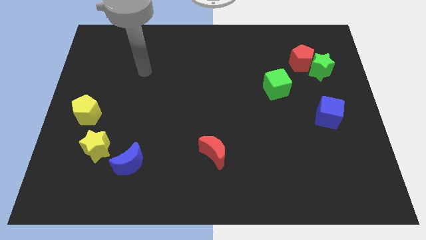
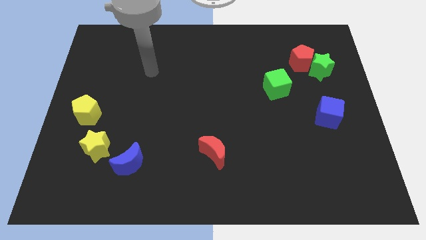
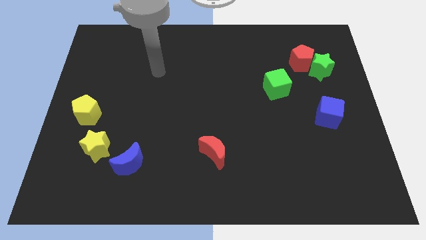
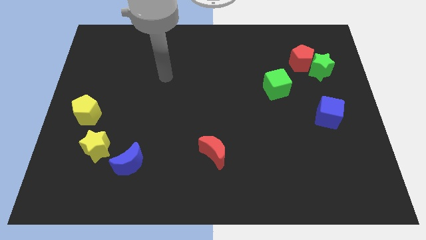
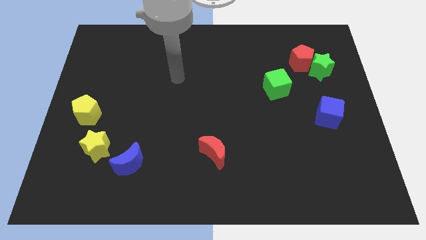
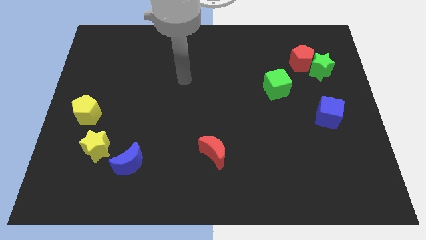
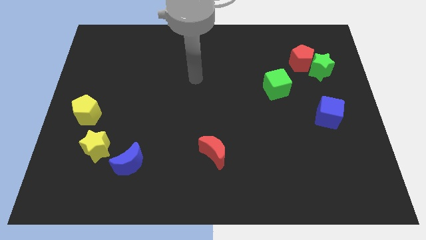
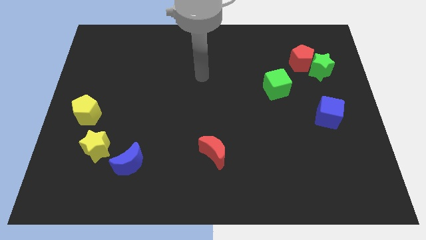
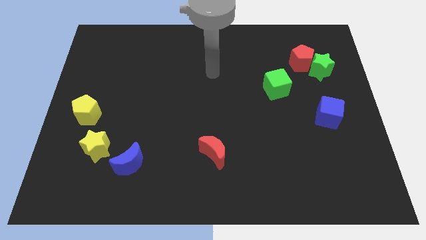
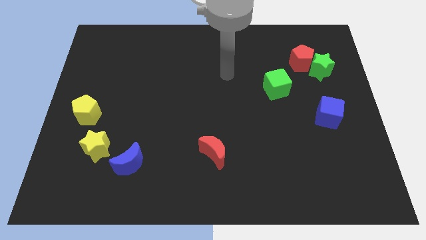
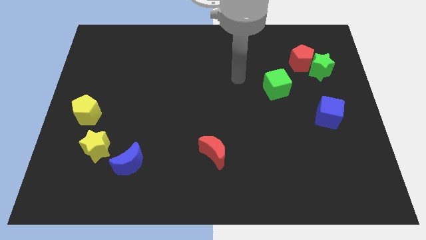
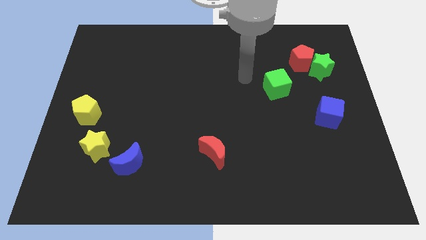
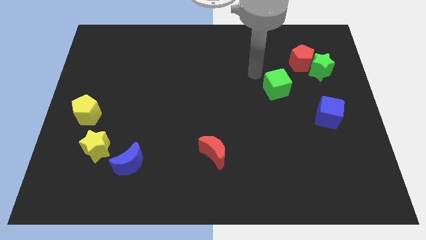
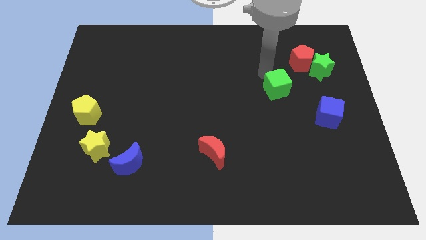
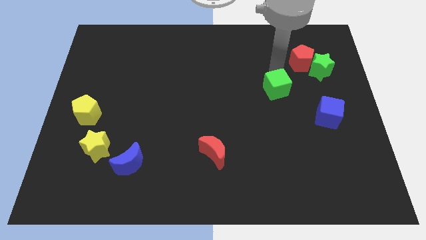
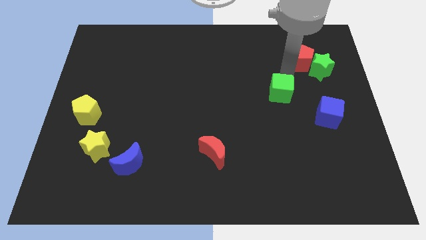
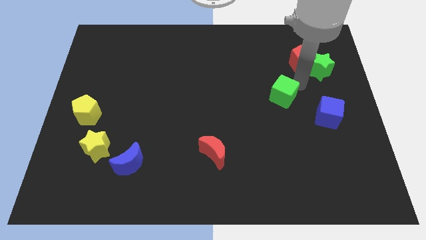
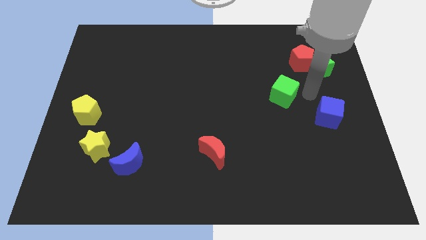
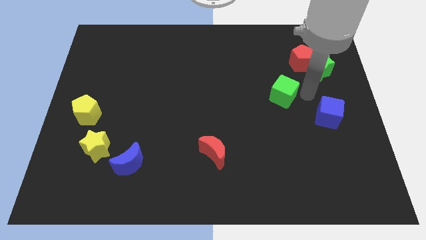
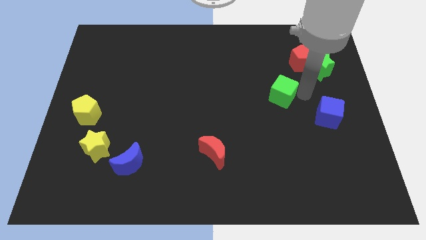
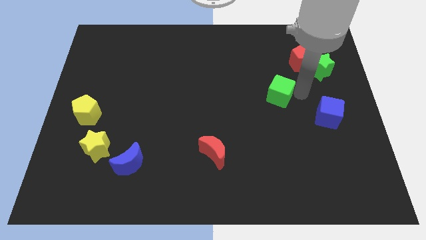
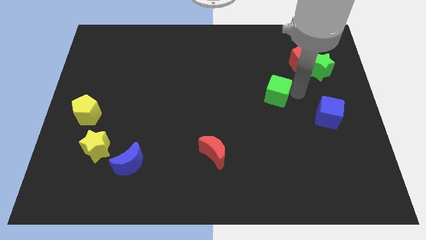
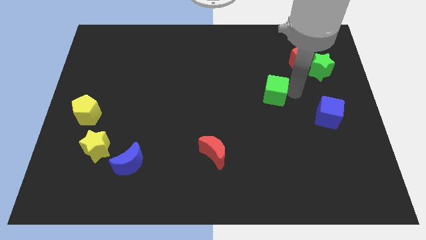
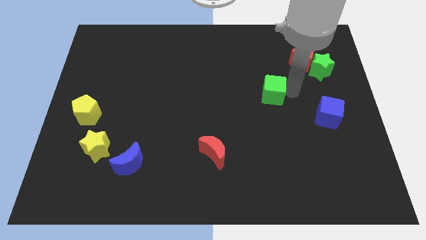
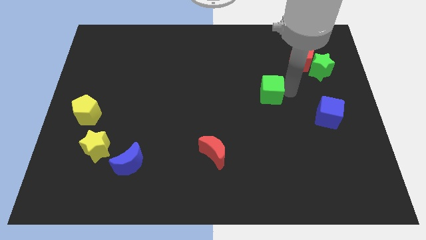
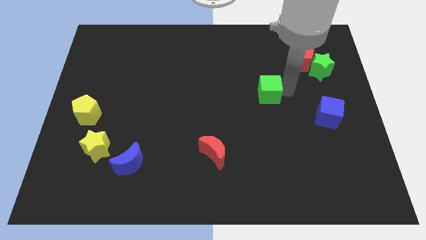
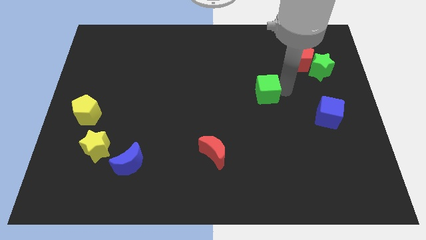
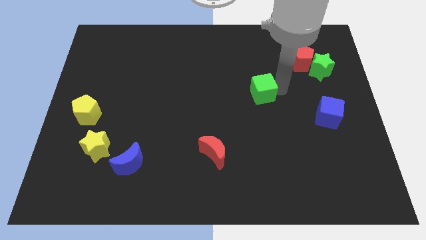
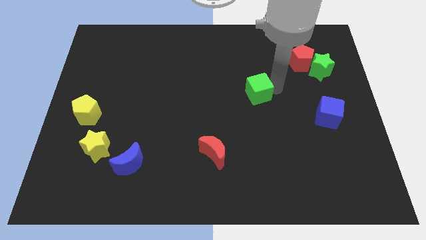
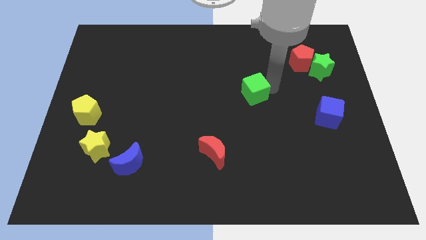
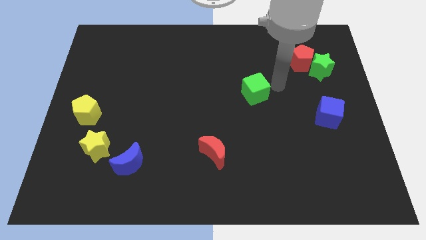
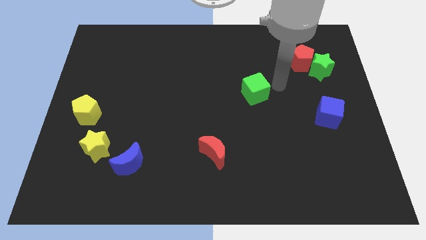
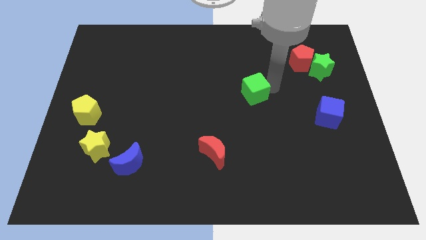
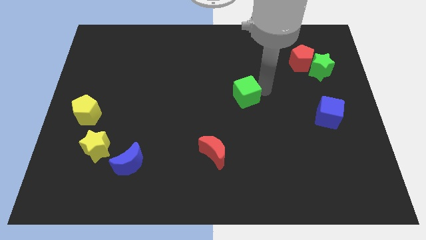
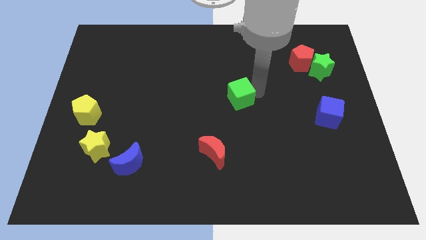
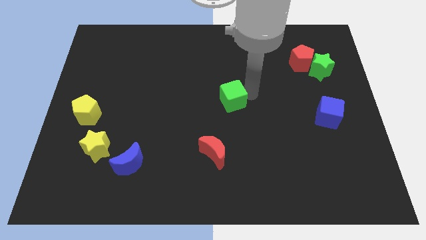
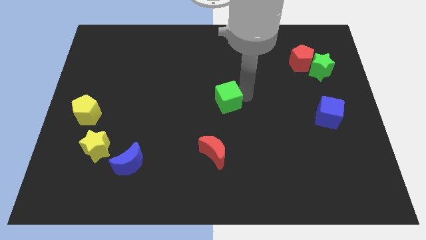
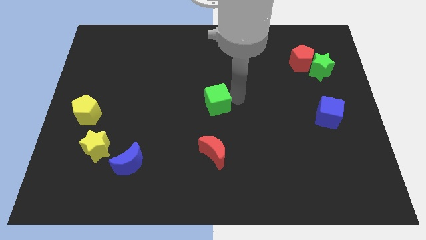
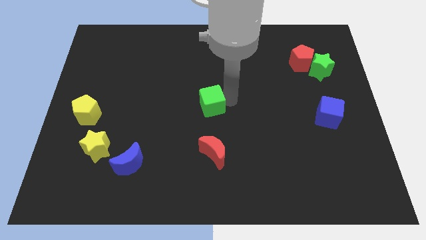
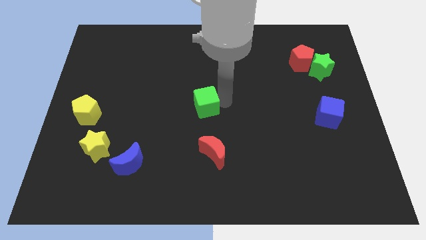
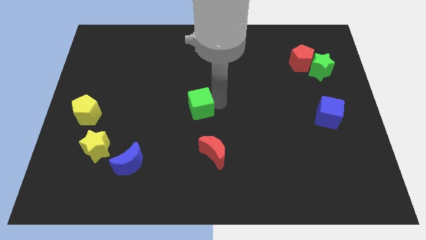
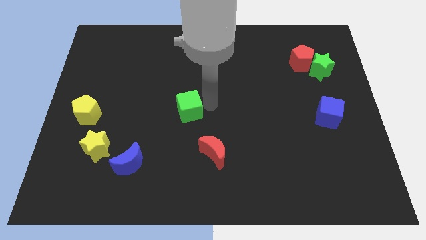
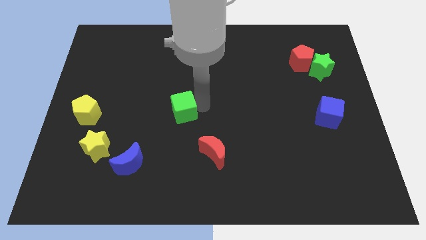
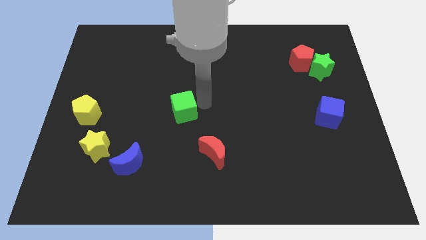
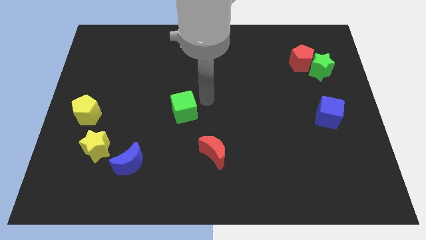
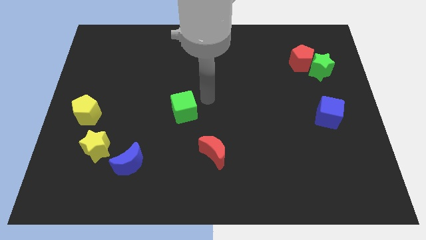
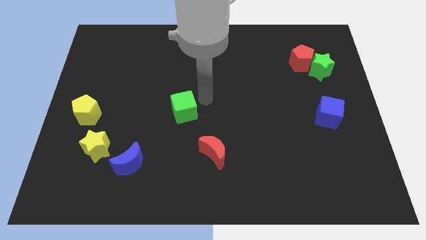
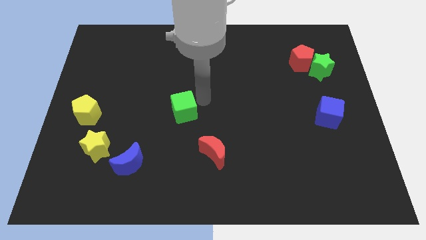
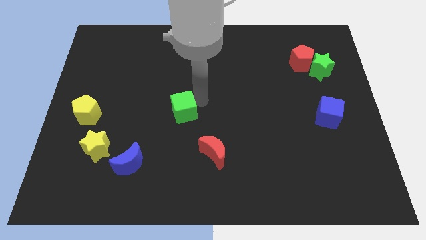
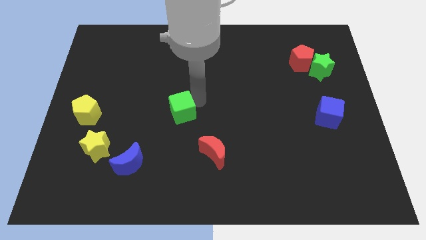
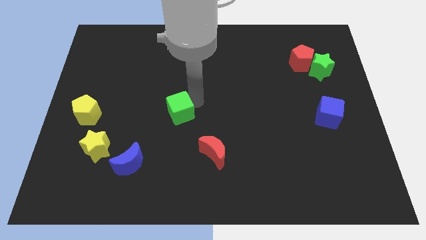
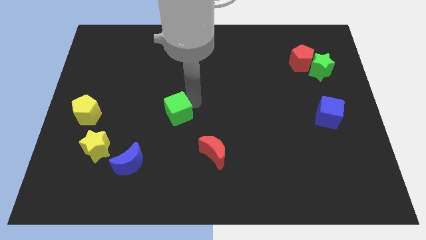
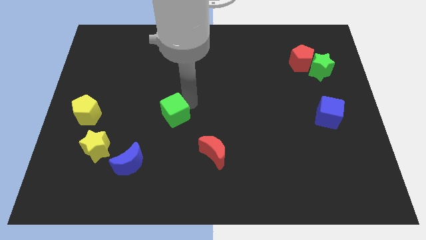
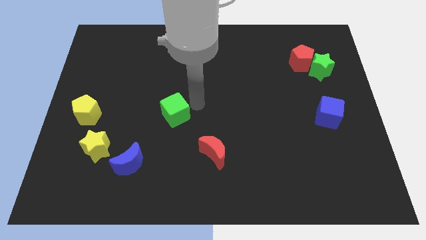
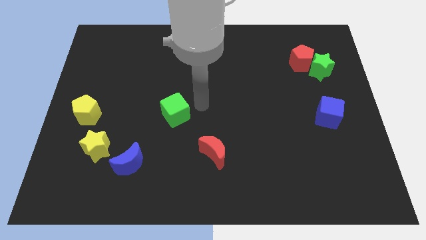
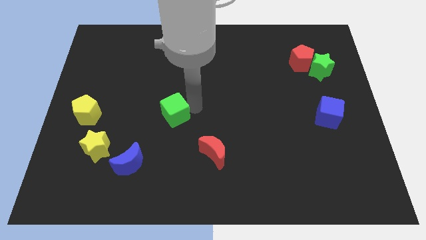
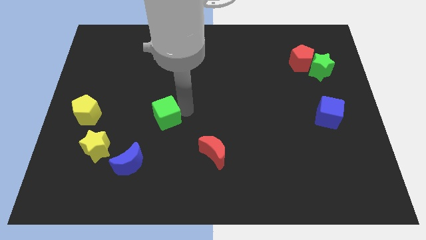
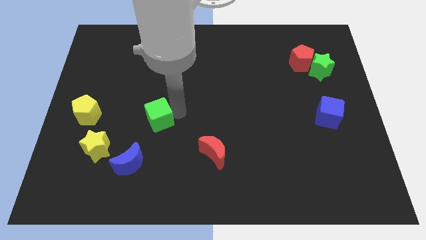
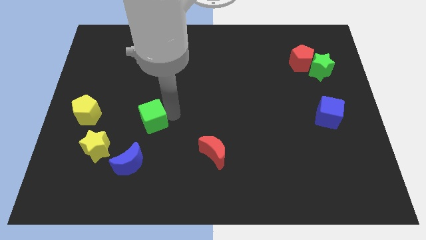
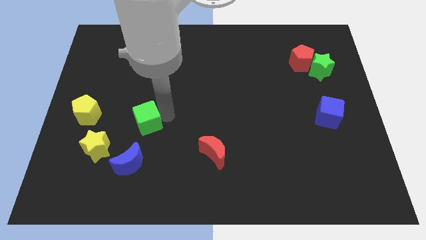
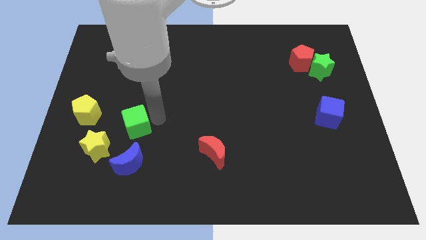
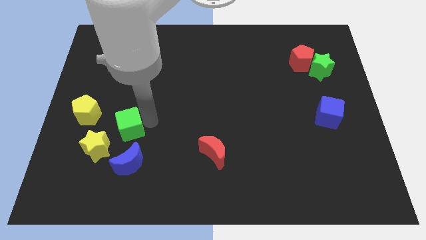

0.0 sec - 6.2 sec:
put the green cube diagonally down and to the right of the yellow pentagon

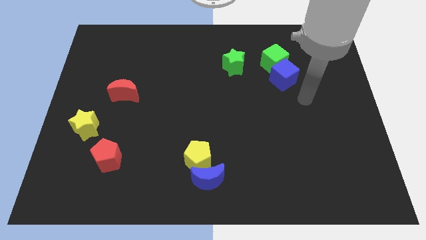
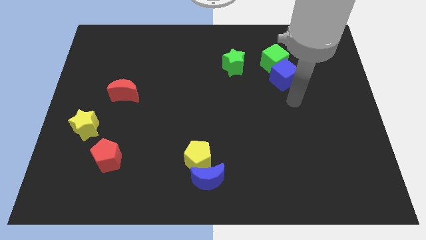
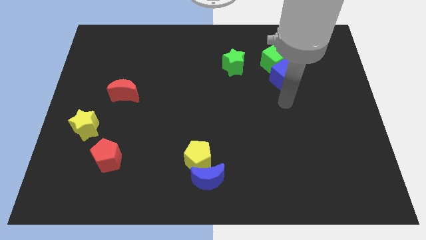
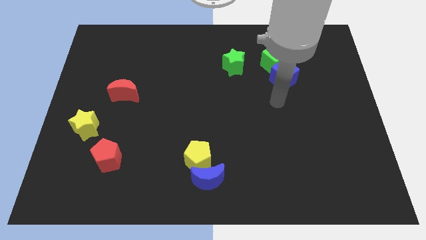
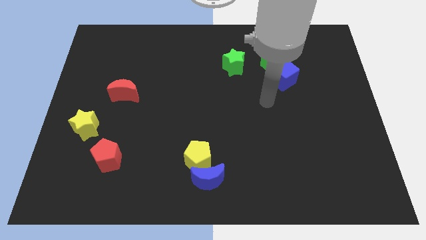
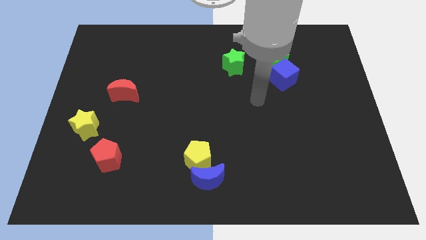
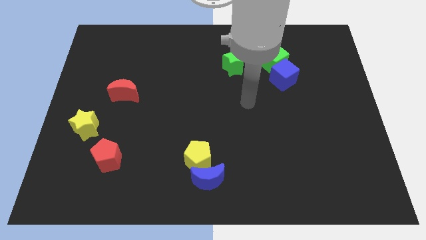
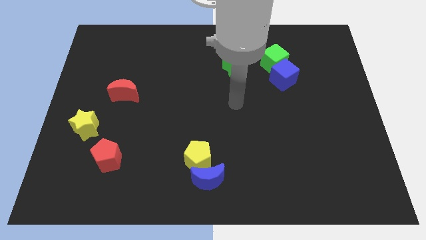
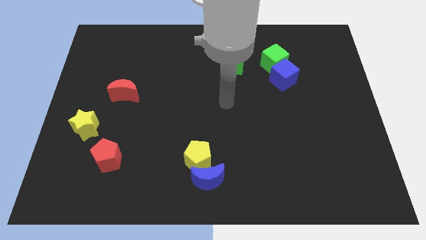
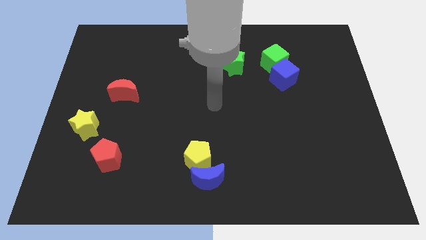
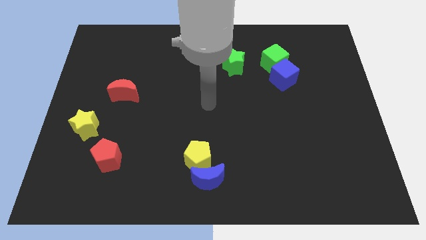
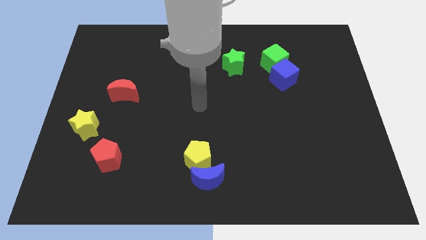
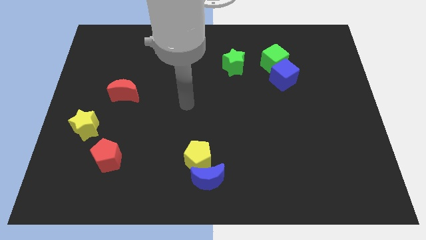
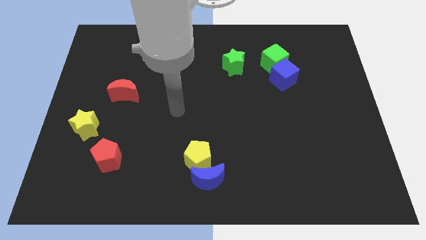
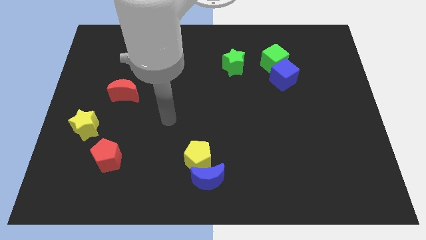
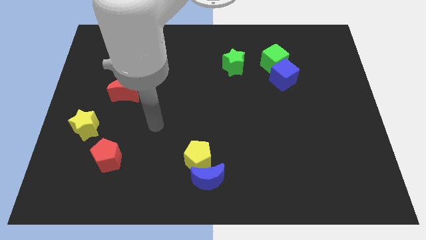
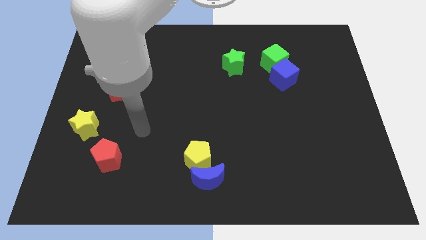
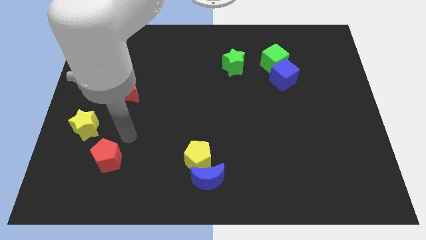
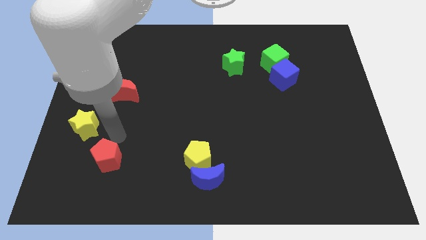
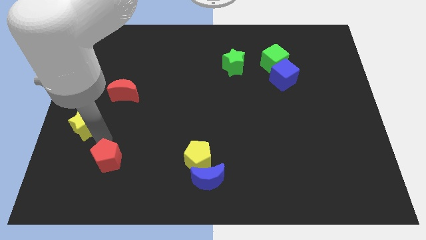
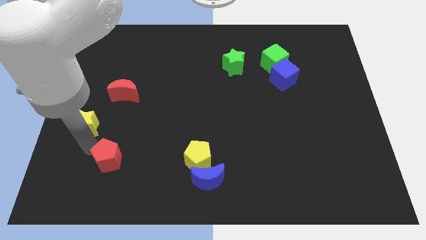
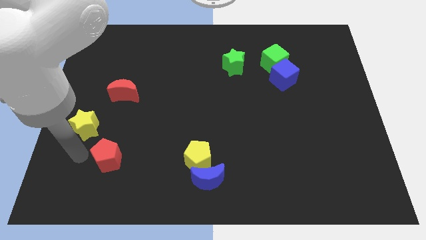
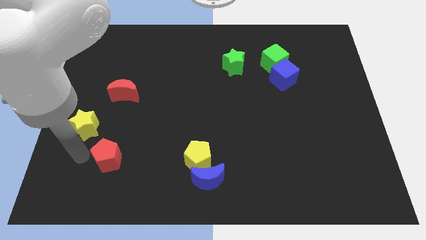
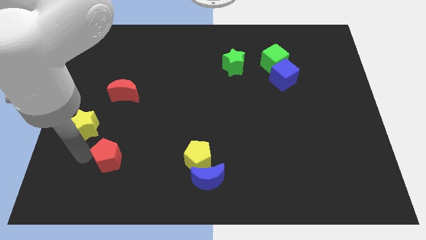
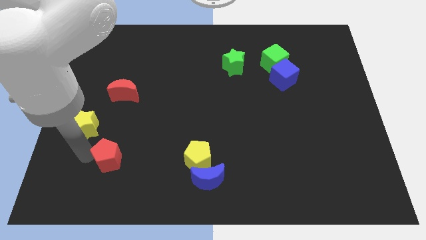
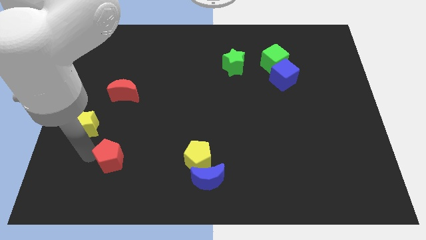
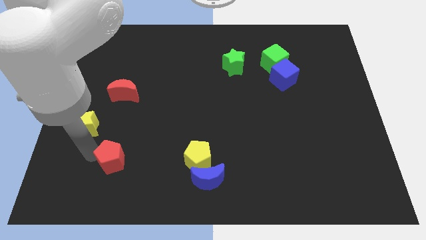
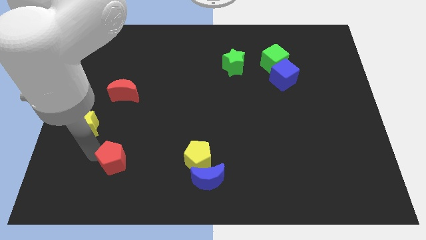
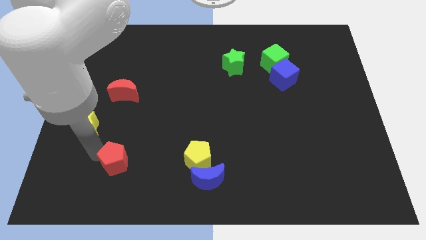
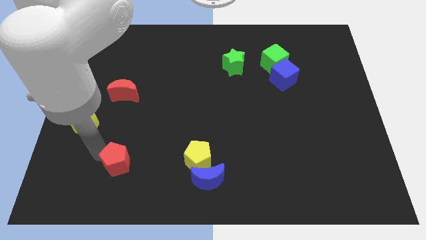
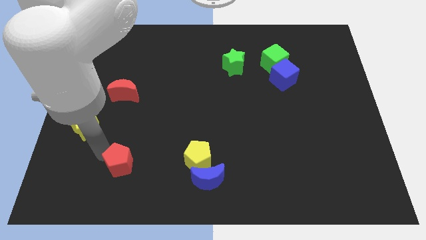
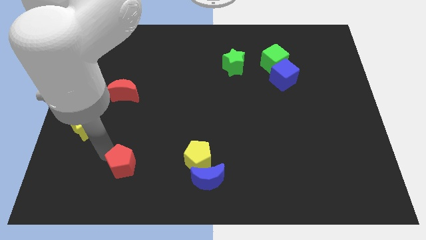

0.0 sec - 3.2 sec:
move the red pentagon to the left side of the yellow pentagon
